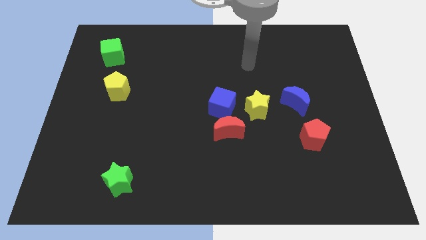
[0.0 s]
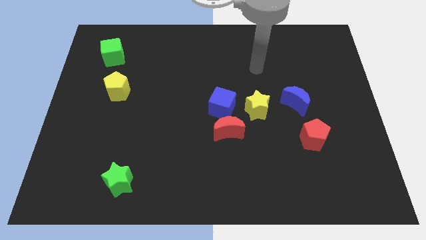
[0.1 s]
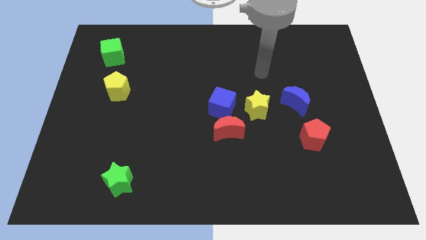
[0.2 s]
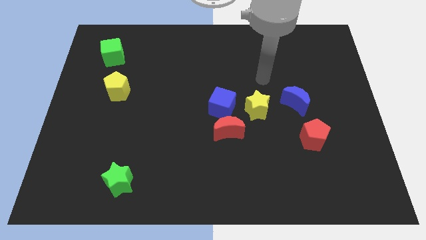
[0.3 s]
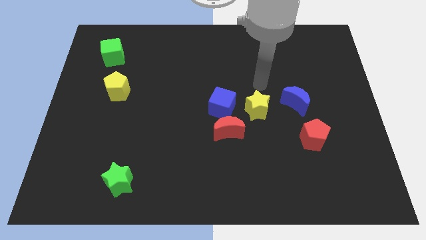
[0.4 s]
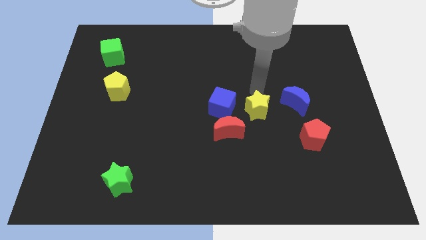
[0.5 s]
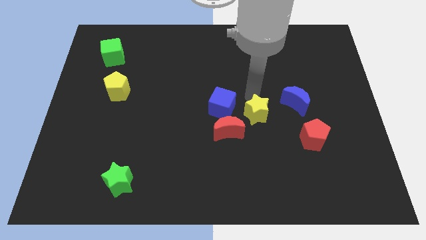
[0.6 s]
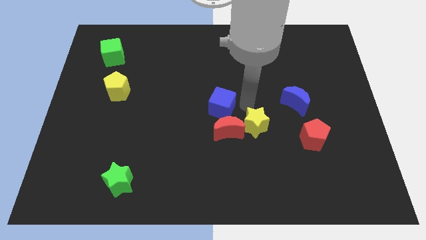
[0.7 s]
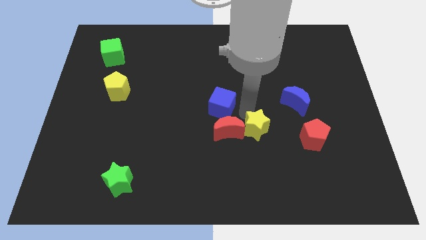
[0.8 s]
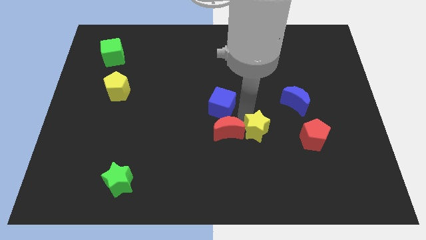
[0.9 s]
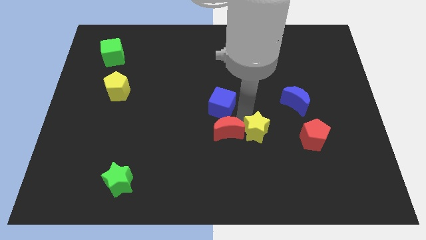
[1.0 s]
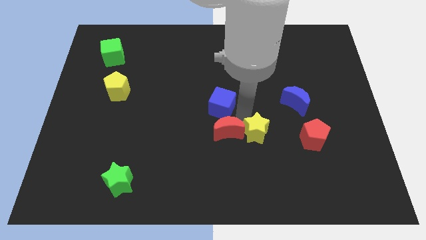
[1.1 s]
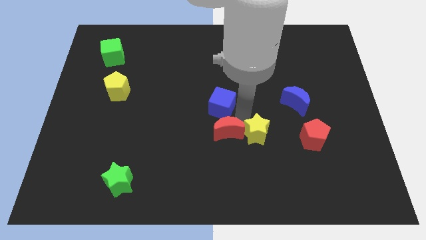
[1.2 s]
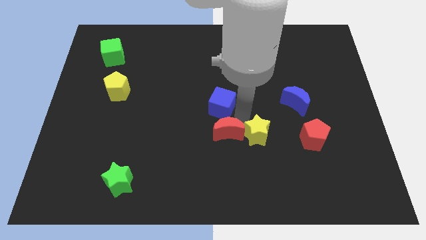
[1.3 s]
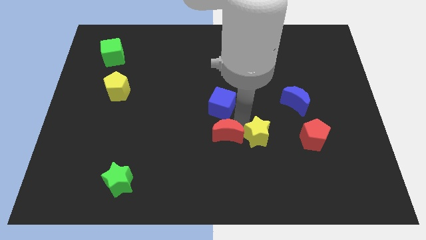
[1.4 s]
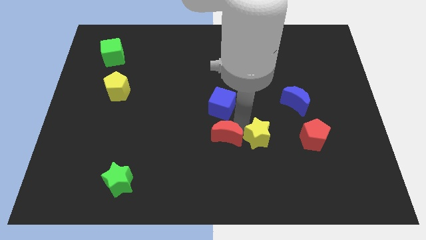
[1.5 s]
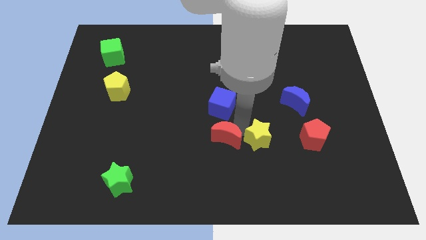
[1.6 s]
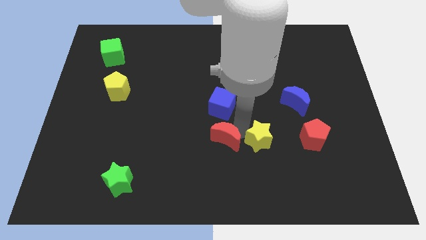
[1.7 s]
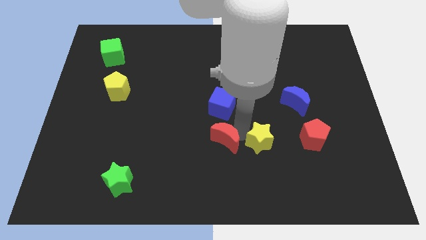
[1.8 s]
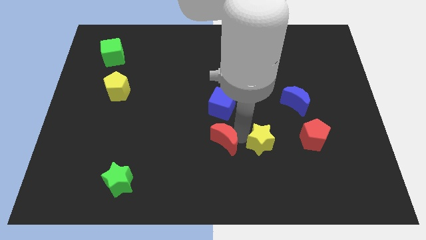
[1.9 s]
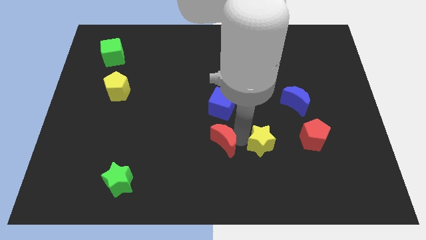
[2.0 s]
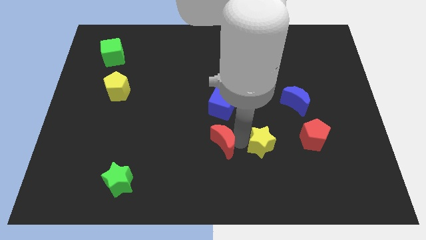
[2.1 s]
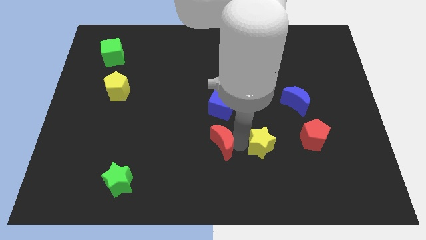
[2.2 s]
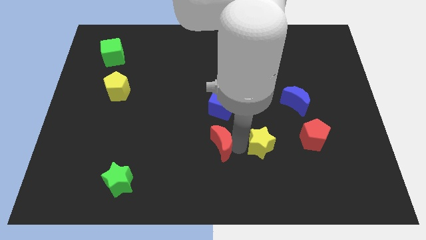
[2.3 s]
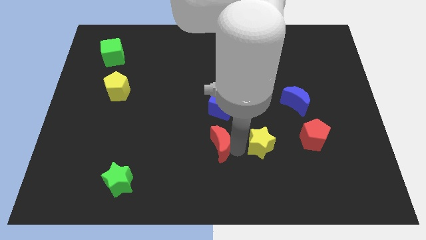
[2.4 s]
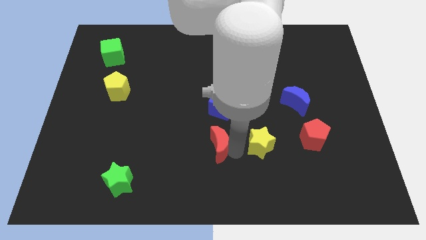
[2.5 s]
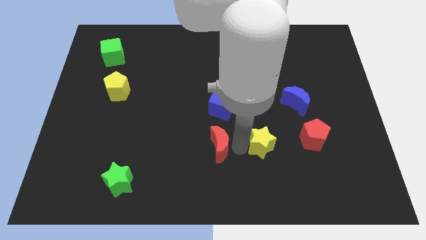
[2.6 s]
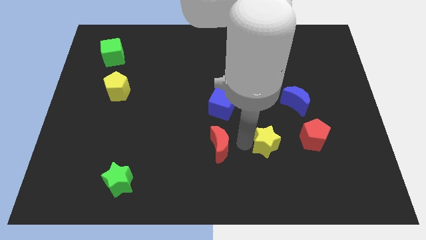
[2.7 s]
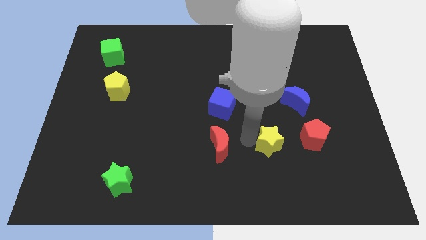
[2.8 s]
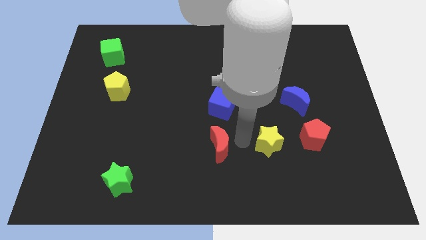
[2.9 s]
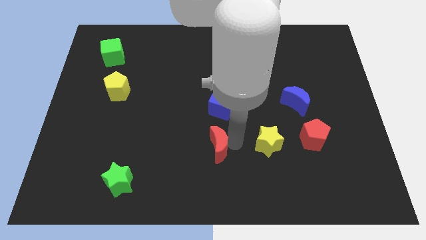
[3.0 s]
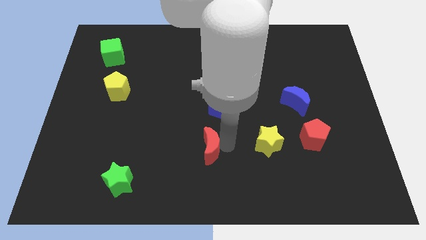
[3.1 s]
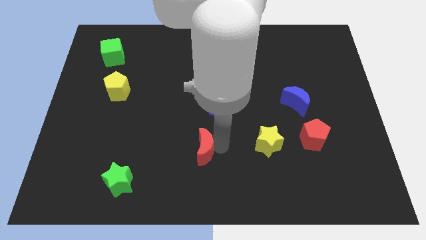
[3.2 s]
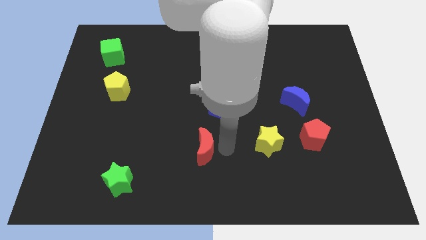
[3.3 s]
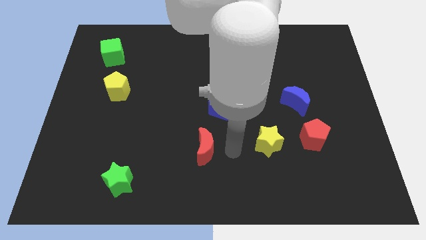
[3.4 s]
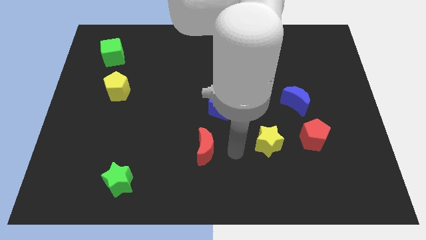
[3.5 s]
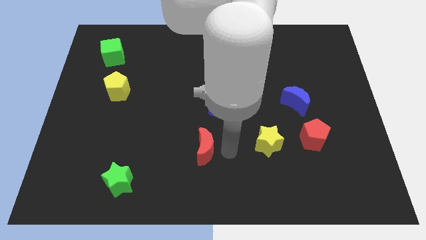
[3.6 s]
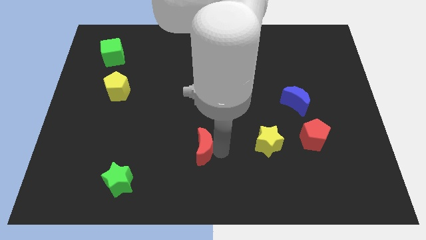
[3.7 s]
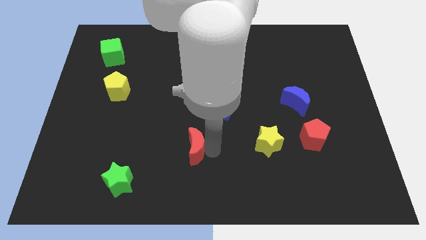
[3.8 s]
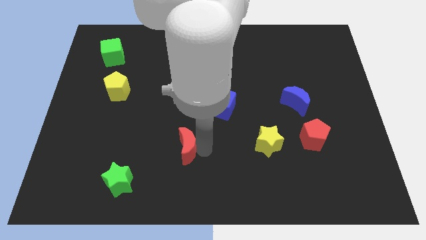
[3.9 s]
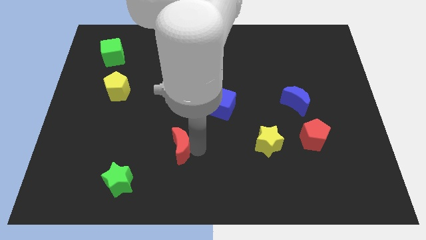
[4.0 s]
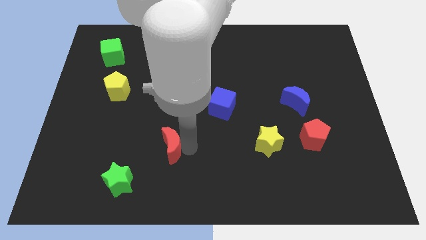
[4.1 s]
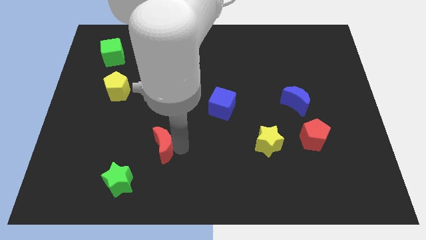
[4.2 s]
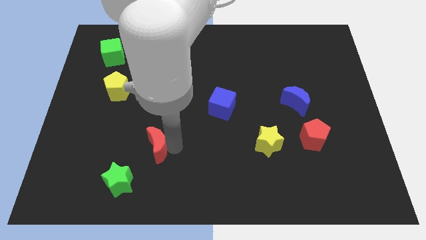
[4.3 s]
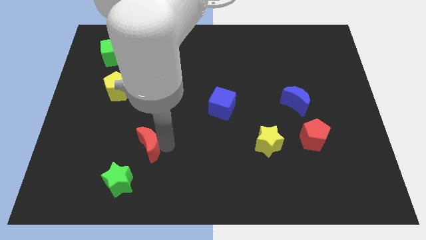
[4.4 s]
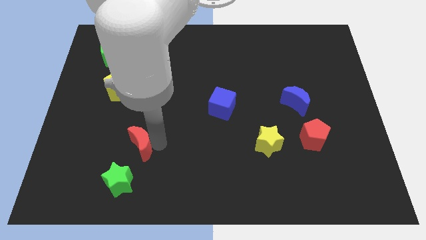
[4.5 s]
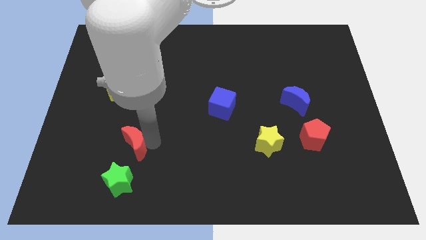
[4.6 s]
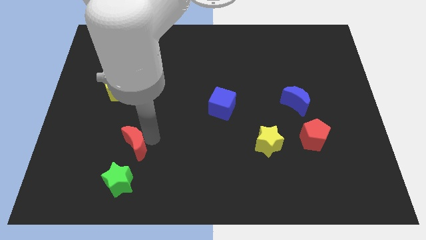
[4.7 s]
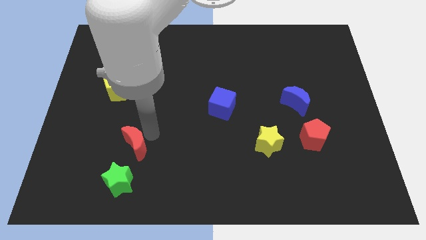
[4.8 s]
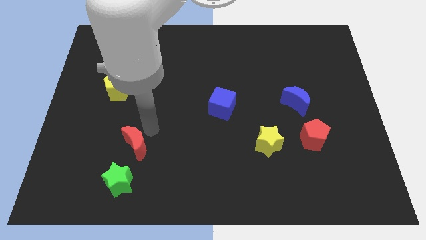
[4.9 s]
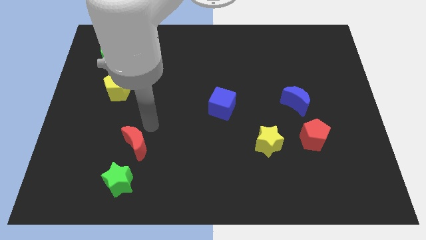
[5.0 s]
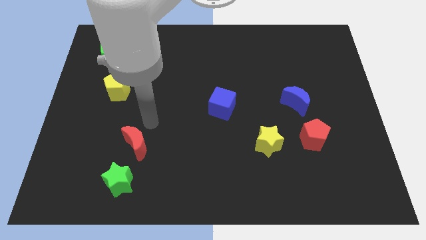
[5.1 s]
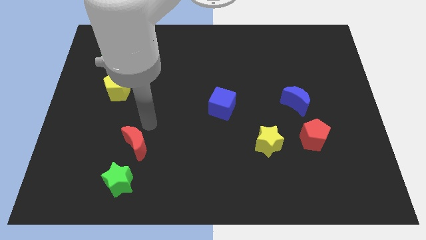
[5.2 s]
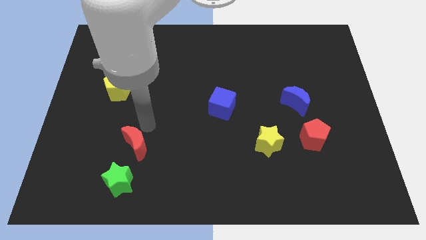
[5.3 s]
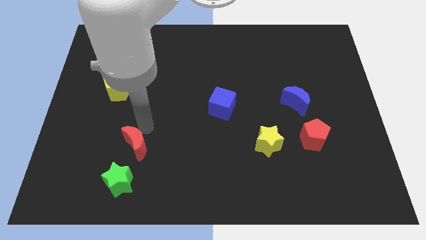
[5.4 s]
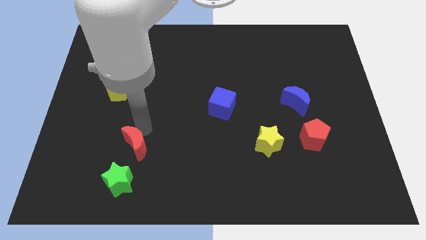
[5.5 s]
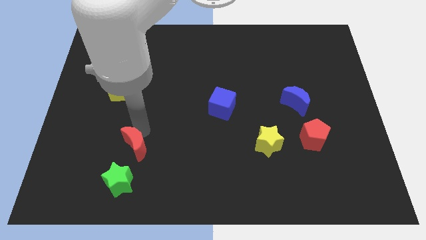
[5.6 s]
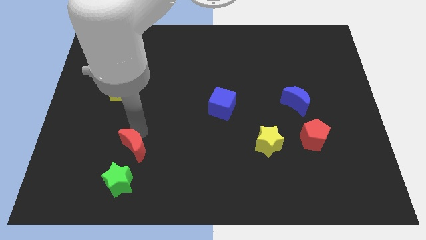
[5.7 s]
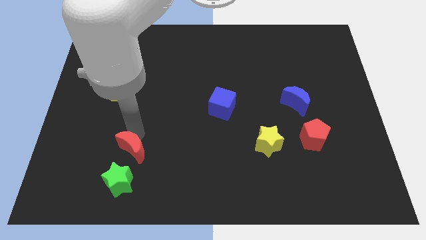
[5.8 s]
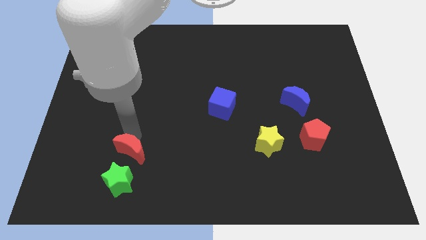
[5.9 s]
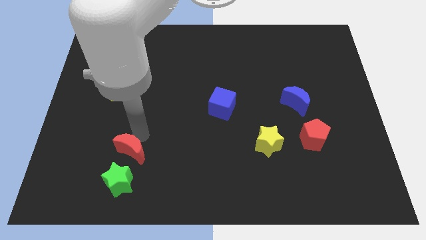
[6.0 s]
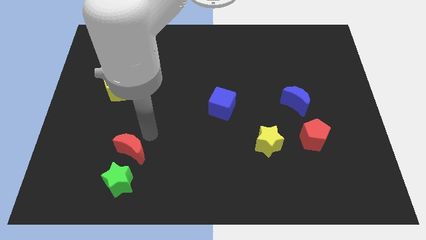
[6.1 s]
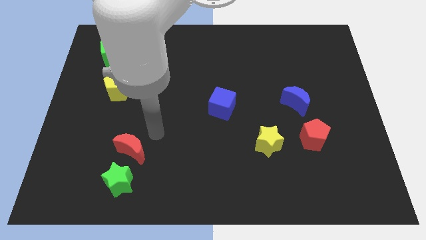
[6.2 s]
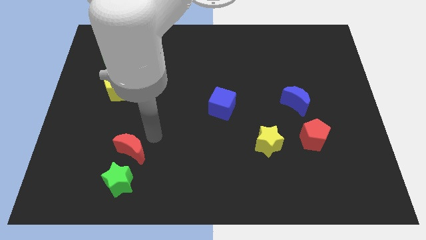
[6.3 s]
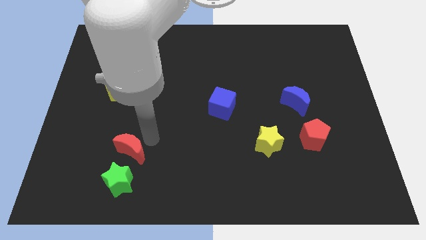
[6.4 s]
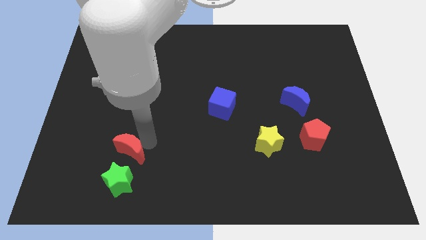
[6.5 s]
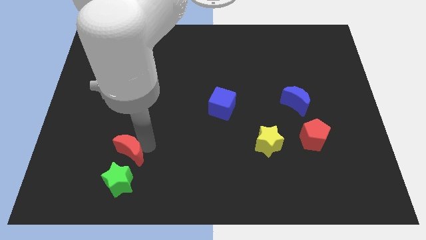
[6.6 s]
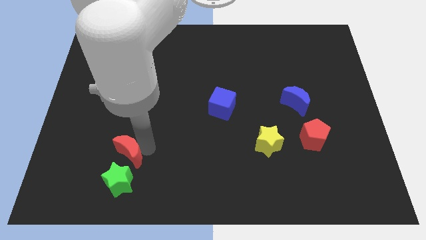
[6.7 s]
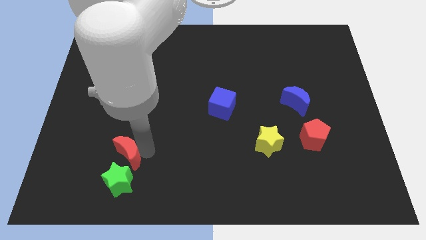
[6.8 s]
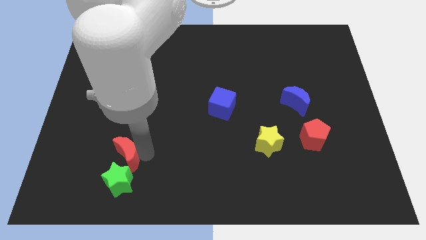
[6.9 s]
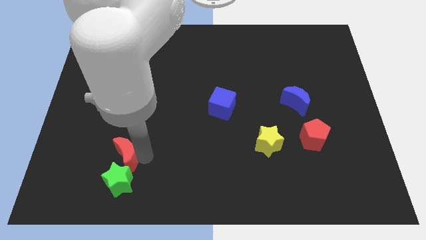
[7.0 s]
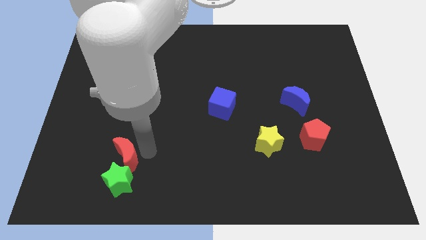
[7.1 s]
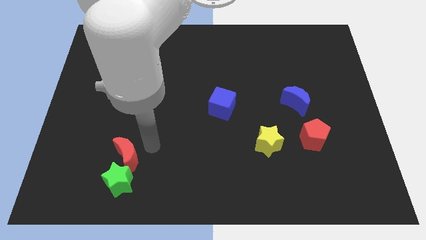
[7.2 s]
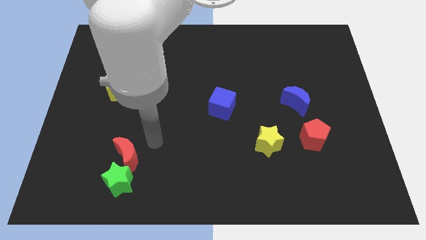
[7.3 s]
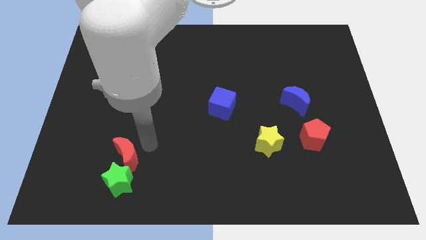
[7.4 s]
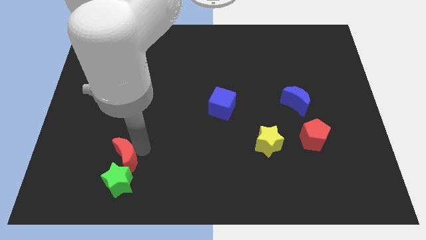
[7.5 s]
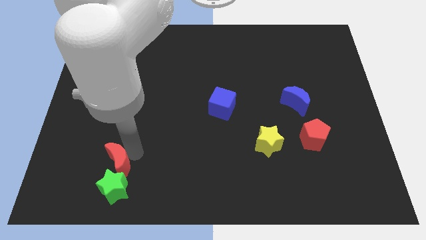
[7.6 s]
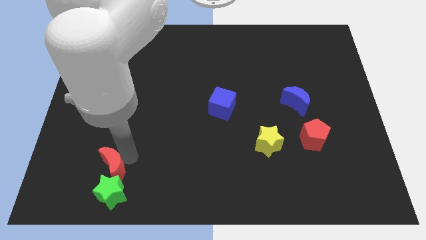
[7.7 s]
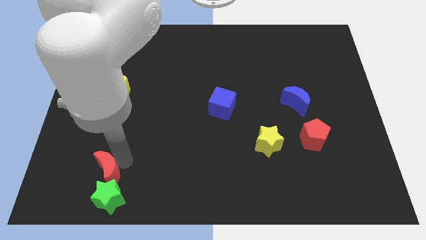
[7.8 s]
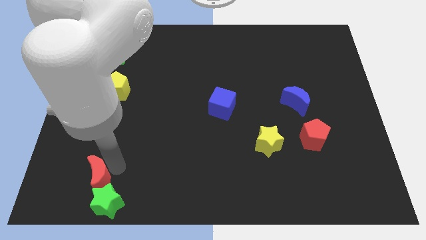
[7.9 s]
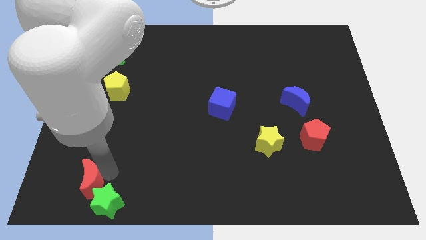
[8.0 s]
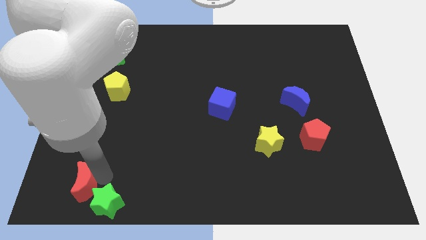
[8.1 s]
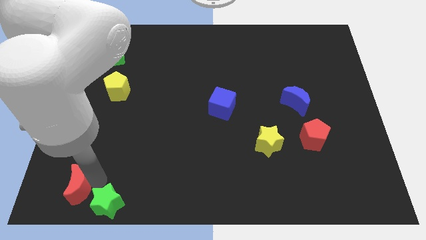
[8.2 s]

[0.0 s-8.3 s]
move the red moon to the bottom left corner
